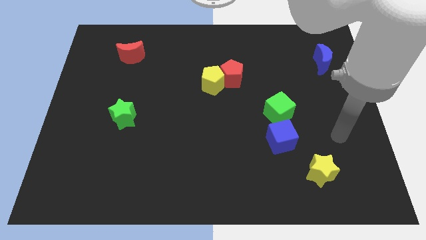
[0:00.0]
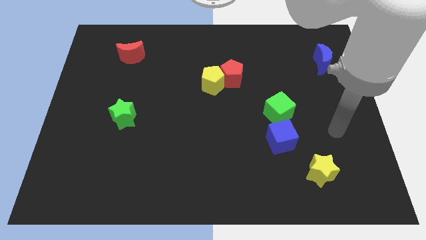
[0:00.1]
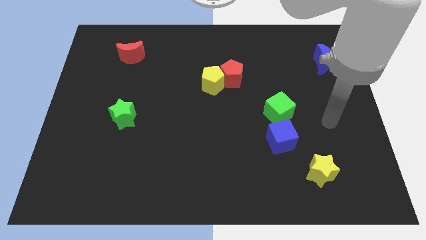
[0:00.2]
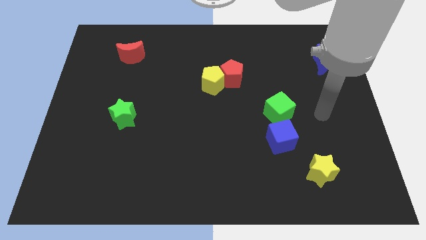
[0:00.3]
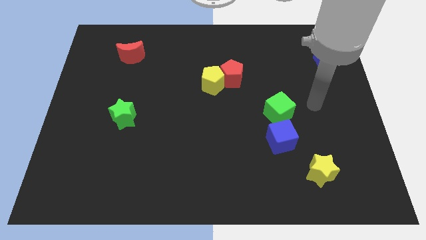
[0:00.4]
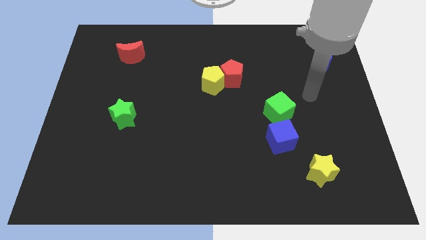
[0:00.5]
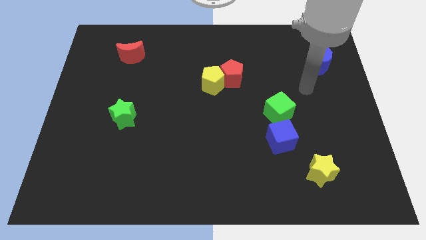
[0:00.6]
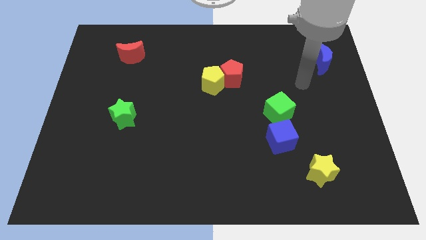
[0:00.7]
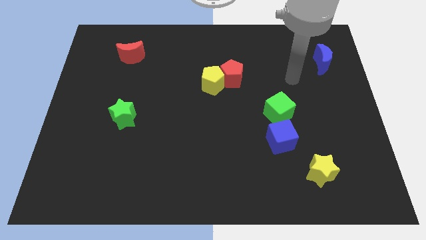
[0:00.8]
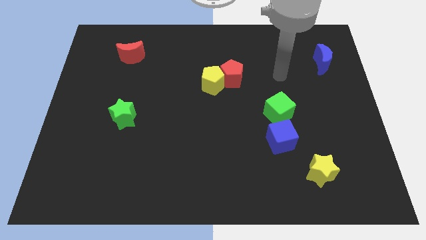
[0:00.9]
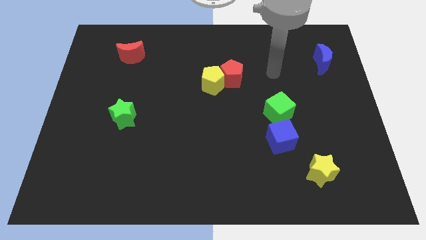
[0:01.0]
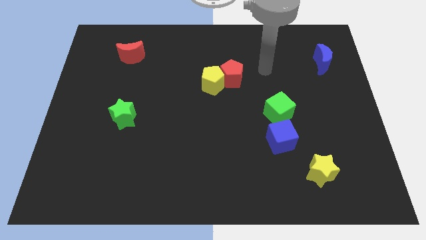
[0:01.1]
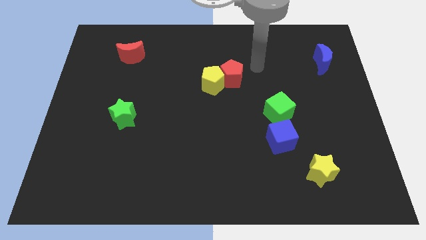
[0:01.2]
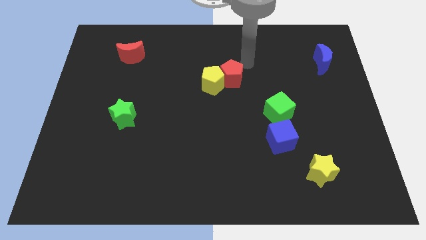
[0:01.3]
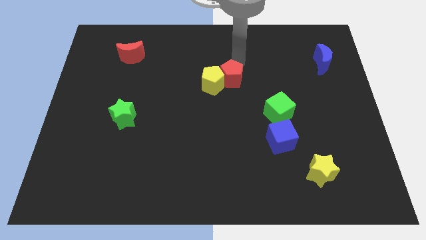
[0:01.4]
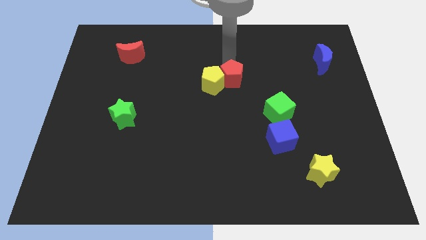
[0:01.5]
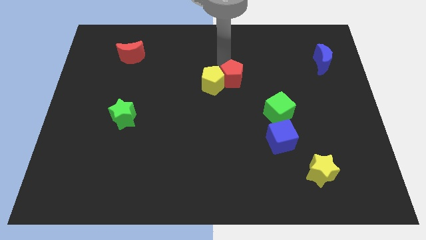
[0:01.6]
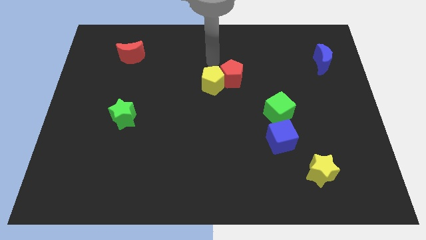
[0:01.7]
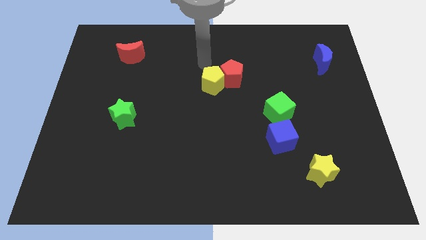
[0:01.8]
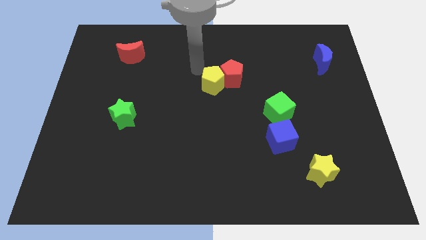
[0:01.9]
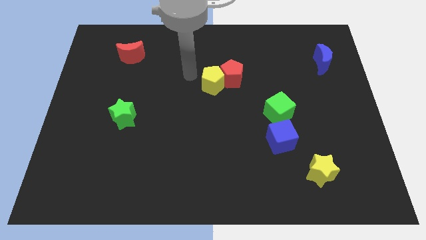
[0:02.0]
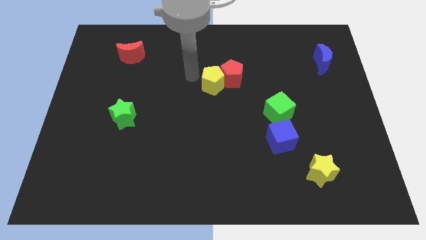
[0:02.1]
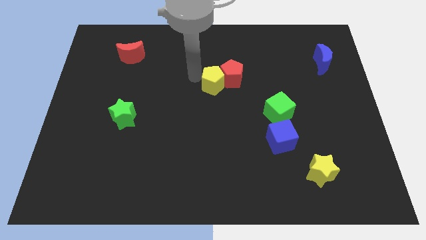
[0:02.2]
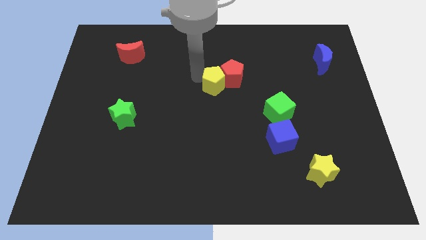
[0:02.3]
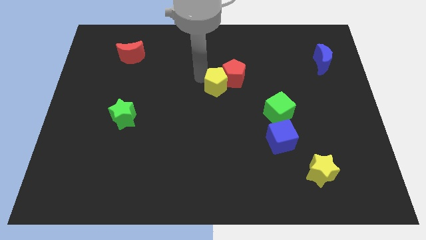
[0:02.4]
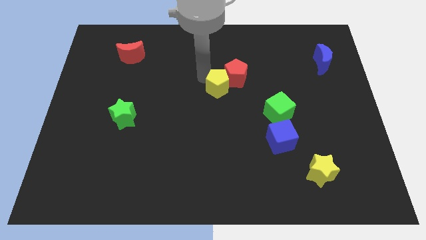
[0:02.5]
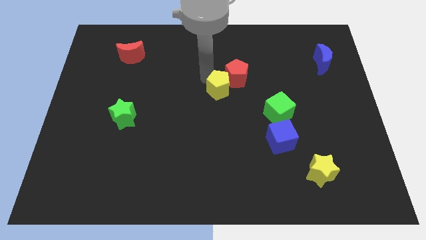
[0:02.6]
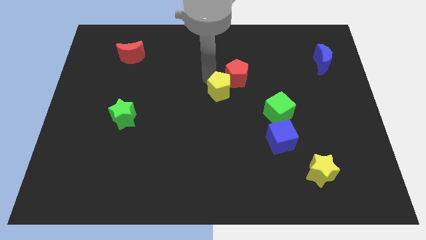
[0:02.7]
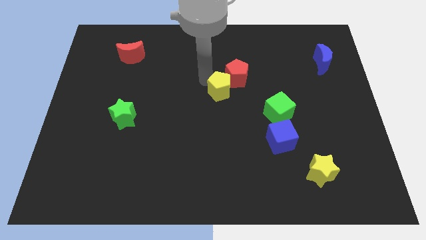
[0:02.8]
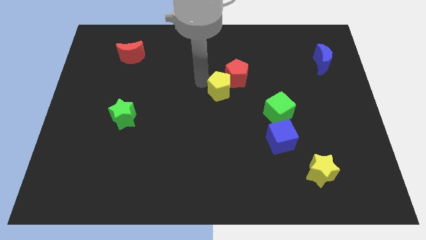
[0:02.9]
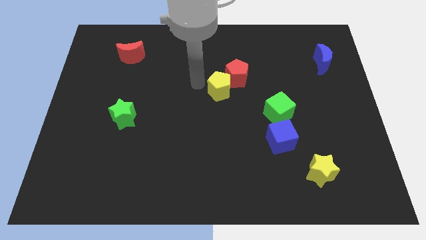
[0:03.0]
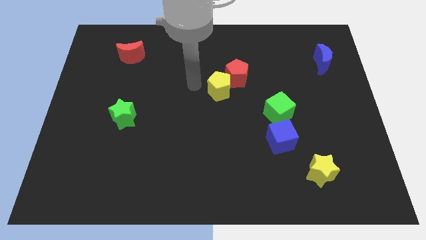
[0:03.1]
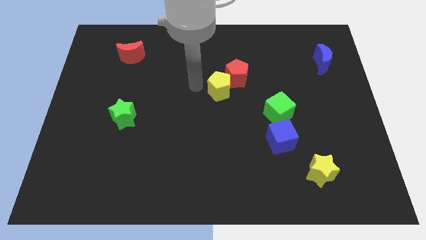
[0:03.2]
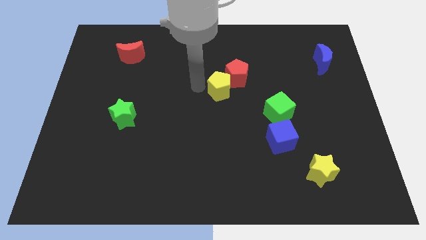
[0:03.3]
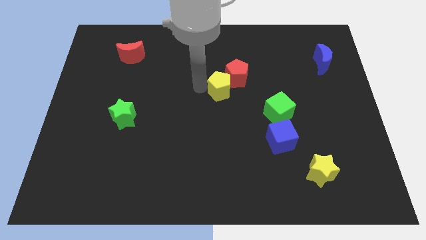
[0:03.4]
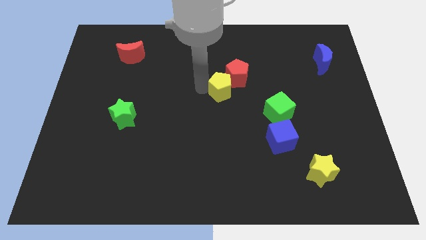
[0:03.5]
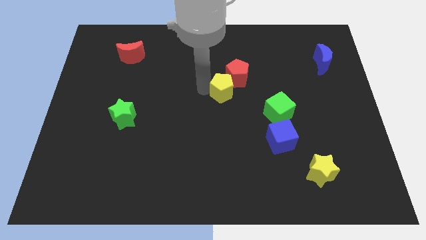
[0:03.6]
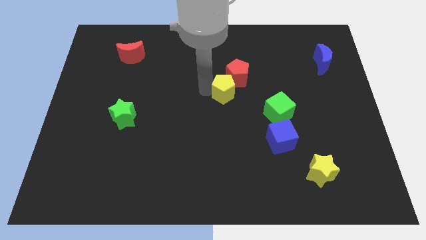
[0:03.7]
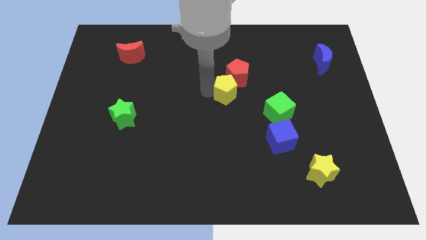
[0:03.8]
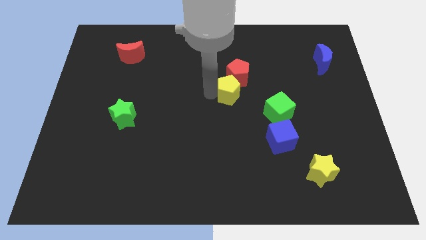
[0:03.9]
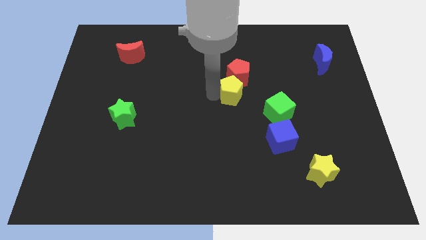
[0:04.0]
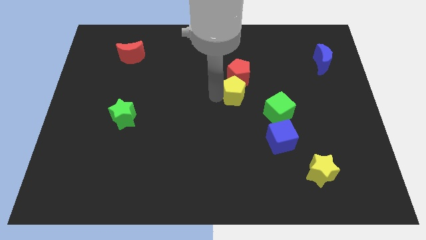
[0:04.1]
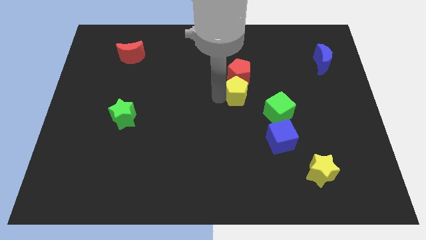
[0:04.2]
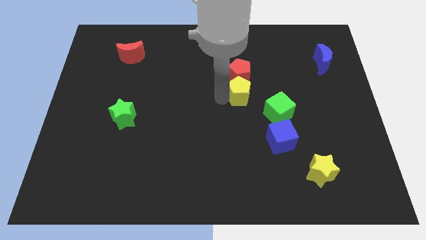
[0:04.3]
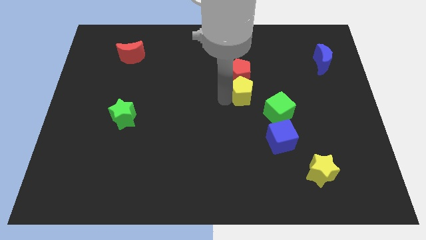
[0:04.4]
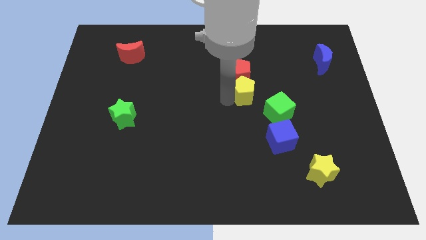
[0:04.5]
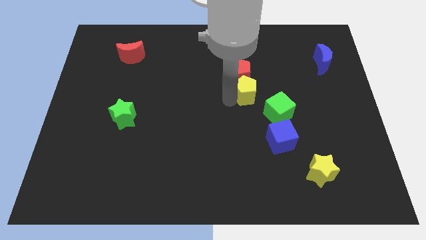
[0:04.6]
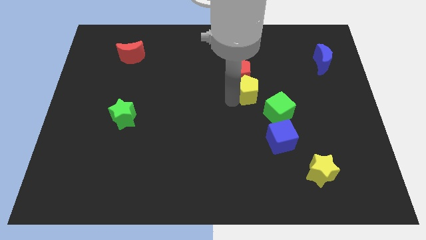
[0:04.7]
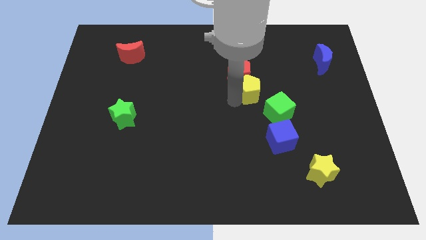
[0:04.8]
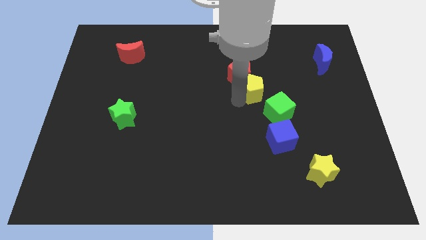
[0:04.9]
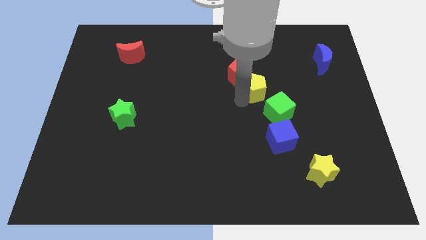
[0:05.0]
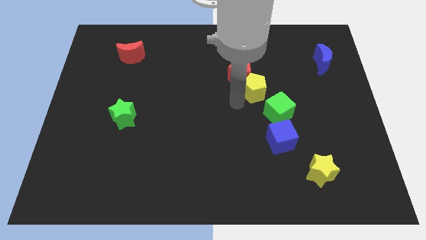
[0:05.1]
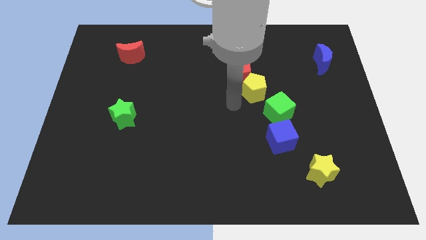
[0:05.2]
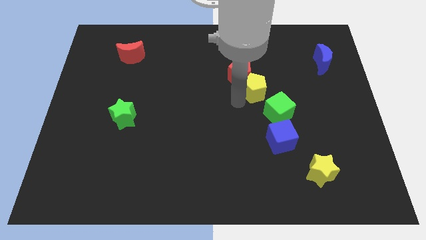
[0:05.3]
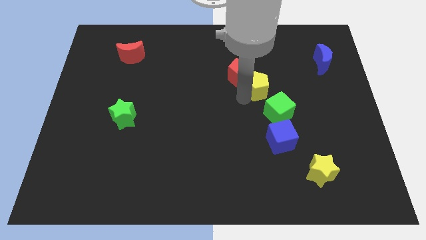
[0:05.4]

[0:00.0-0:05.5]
put the yellow pentagon to the top side of the green cube

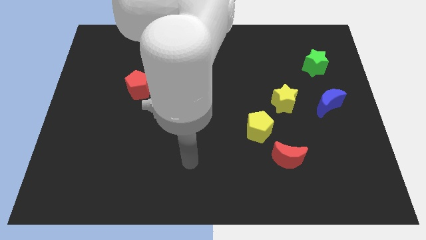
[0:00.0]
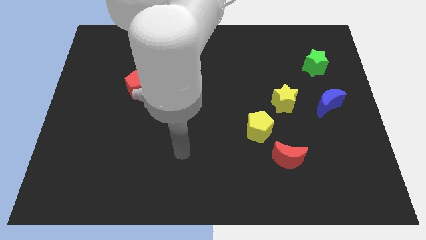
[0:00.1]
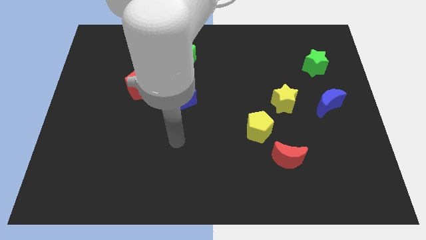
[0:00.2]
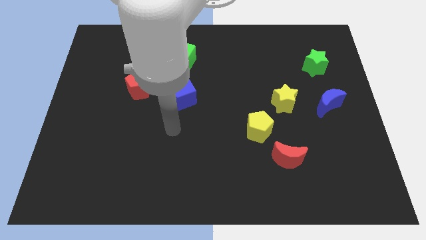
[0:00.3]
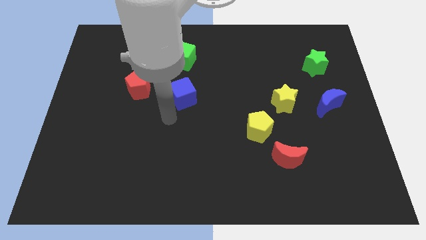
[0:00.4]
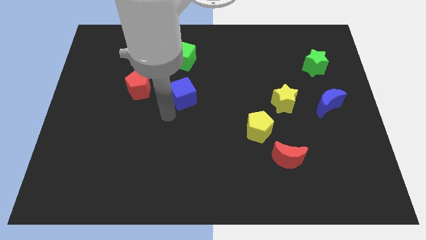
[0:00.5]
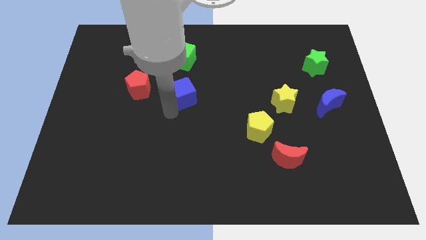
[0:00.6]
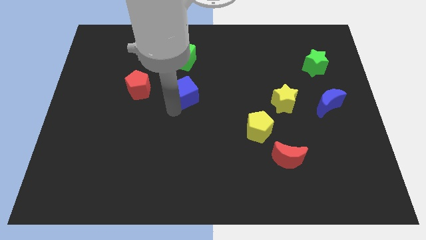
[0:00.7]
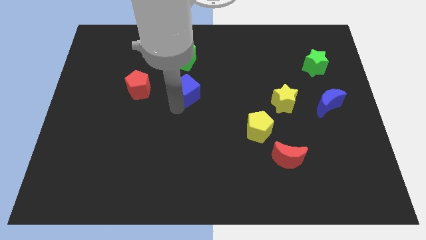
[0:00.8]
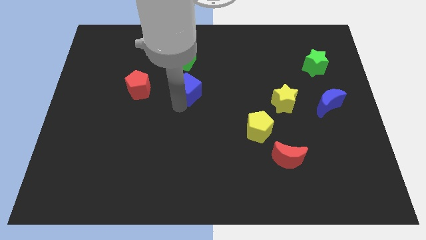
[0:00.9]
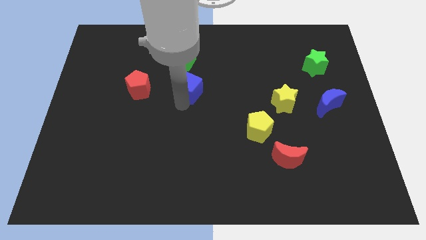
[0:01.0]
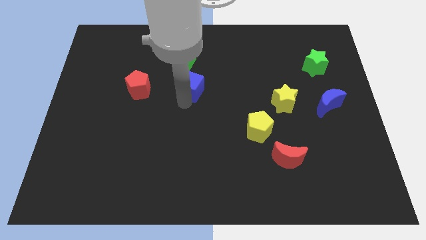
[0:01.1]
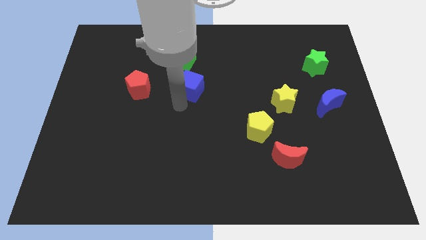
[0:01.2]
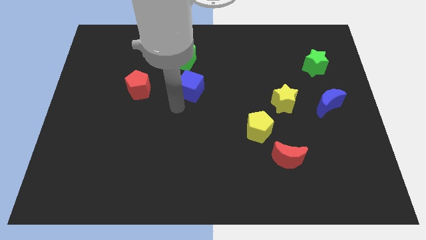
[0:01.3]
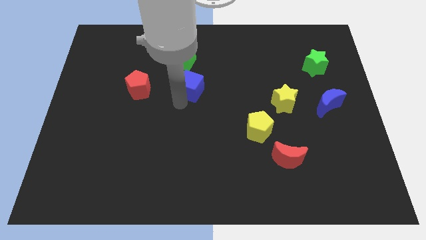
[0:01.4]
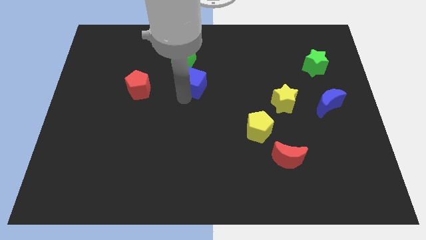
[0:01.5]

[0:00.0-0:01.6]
slide the blue cube to the bottom right side of the green cube
